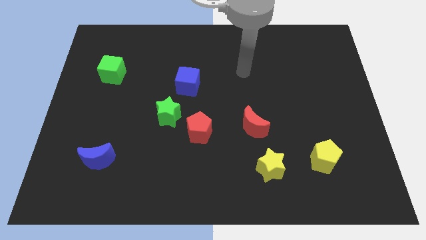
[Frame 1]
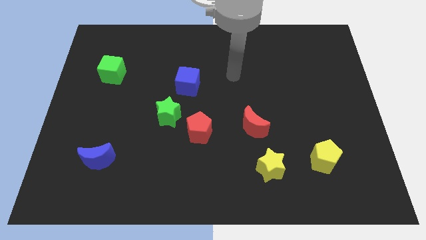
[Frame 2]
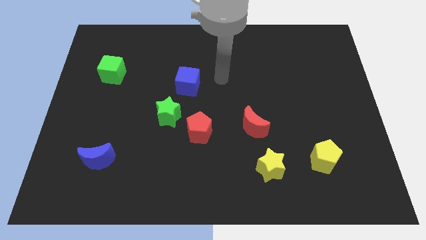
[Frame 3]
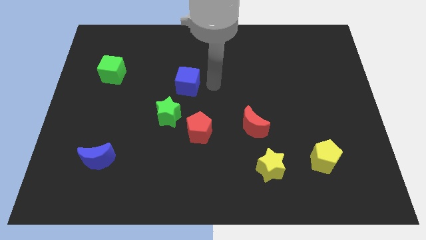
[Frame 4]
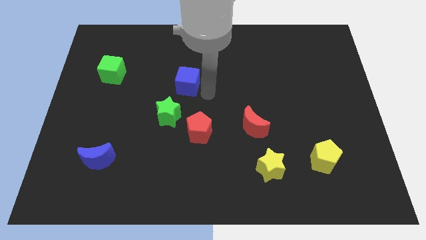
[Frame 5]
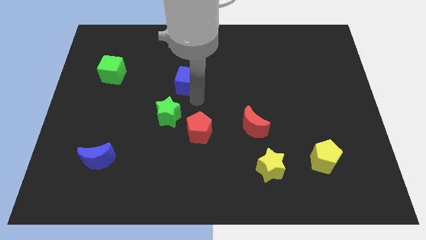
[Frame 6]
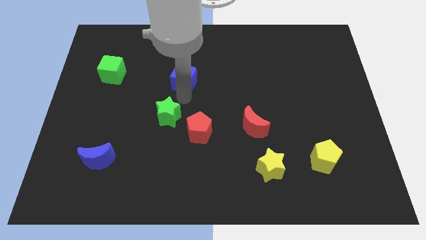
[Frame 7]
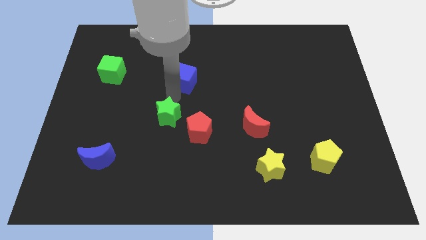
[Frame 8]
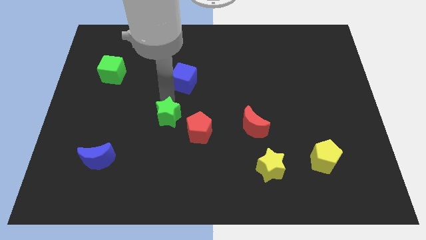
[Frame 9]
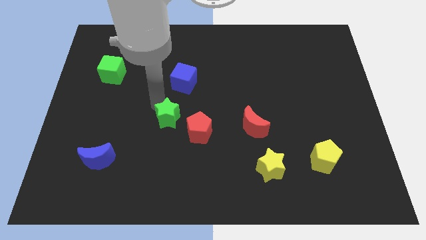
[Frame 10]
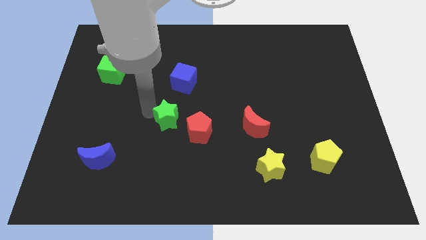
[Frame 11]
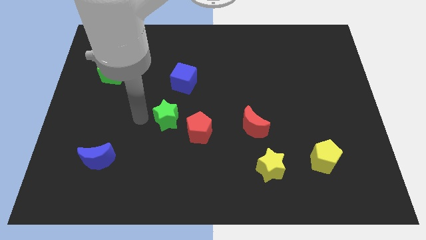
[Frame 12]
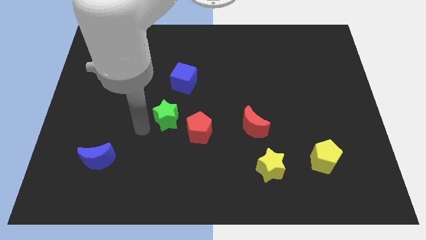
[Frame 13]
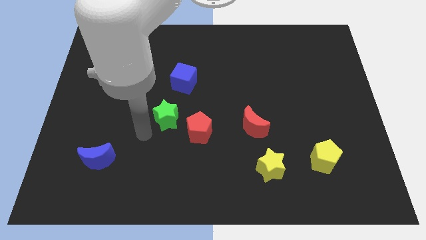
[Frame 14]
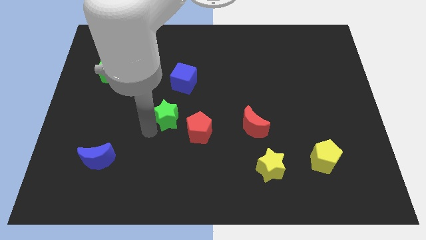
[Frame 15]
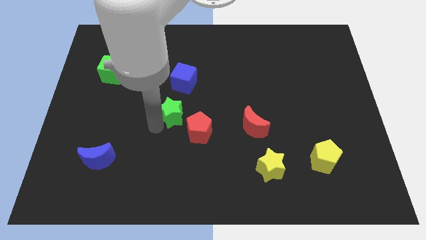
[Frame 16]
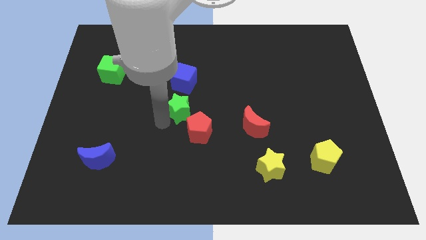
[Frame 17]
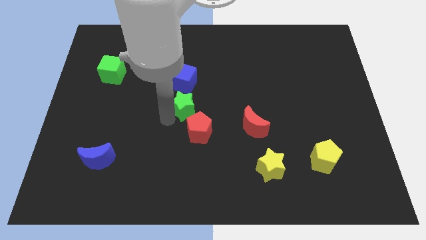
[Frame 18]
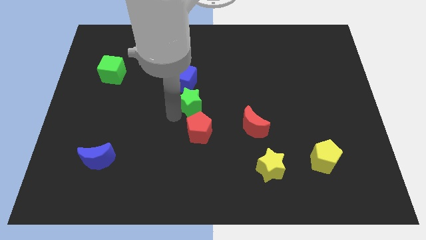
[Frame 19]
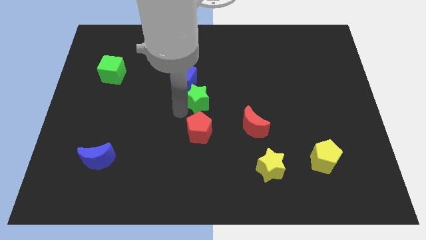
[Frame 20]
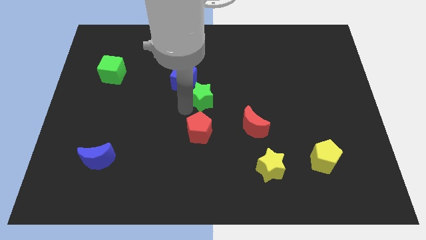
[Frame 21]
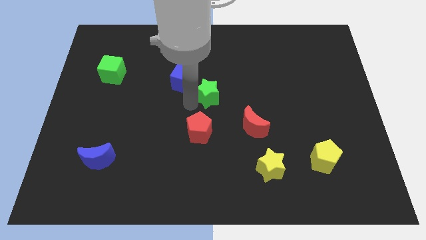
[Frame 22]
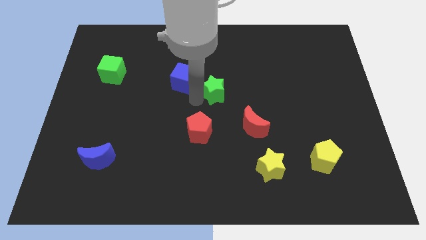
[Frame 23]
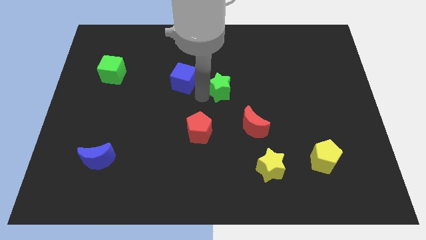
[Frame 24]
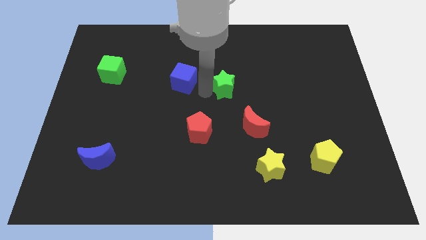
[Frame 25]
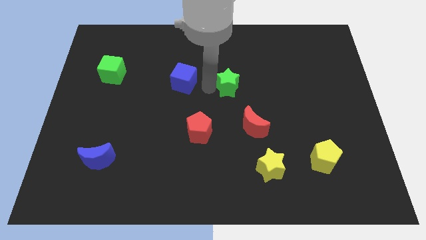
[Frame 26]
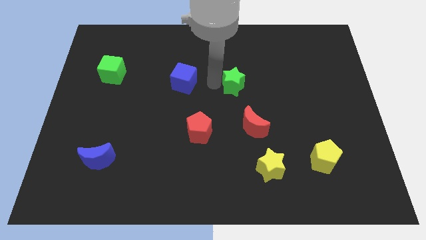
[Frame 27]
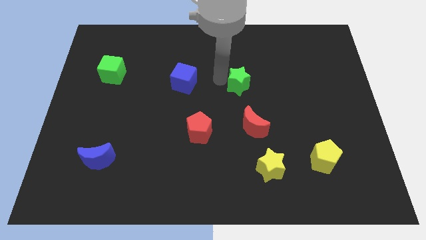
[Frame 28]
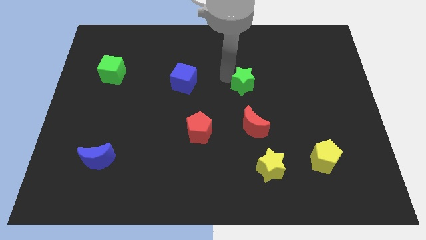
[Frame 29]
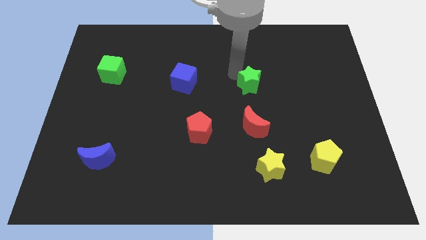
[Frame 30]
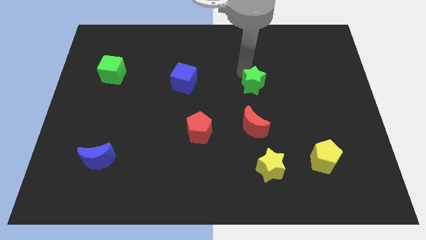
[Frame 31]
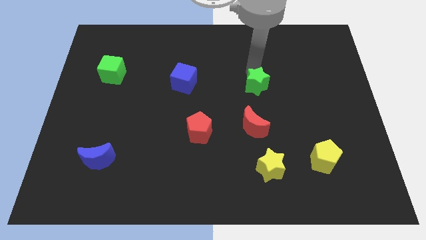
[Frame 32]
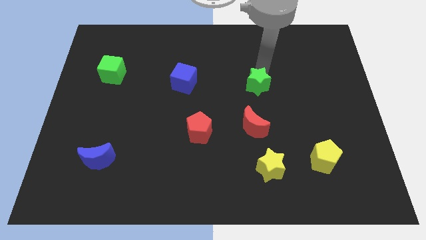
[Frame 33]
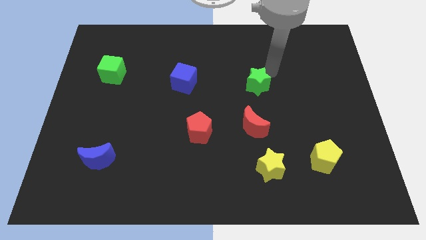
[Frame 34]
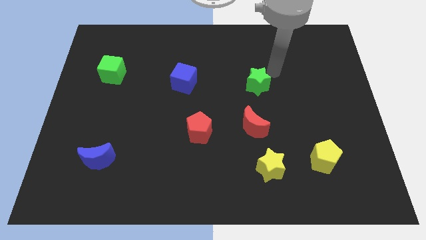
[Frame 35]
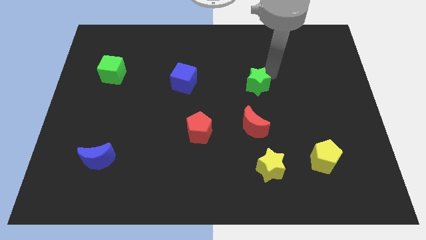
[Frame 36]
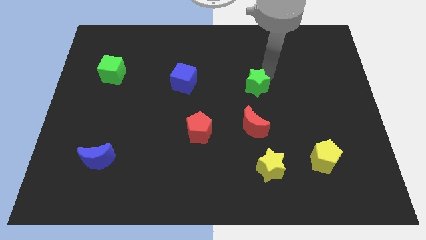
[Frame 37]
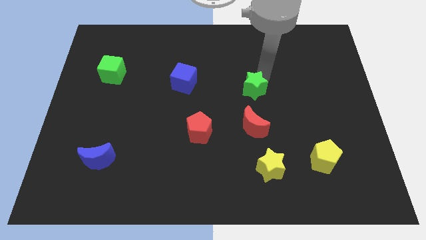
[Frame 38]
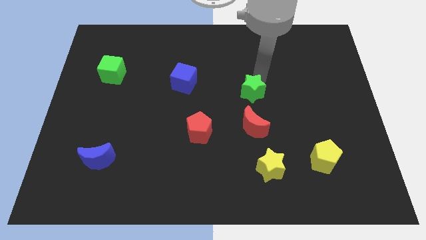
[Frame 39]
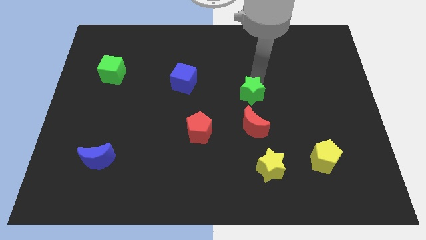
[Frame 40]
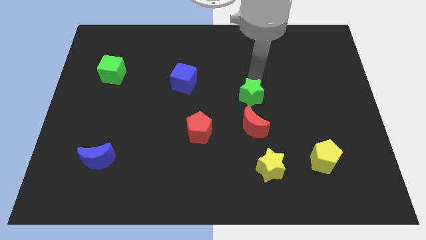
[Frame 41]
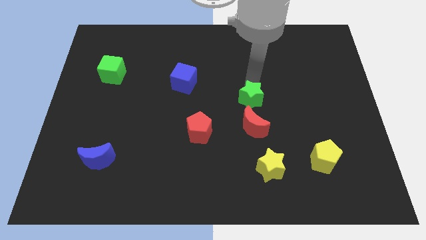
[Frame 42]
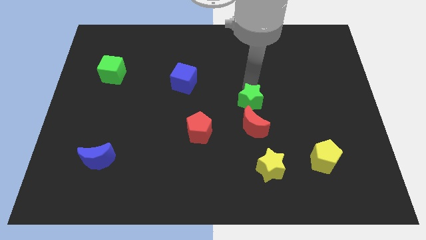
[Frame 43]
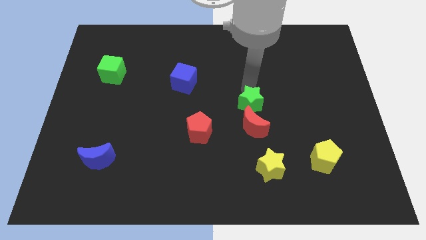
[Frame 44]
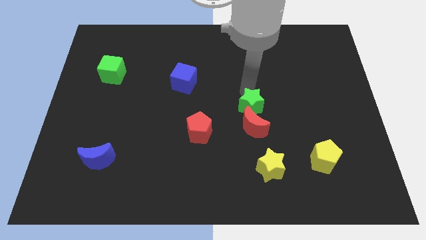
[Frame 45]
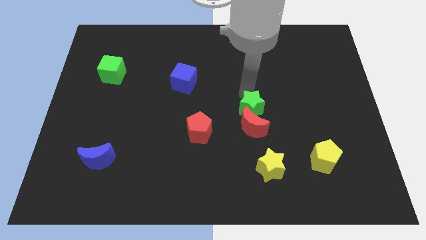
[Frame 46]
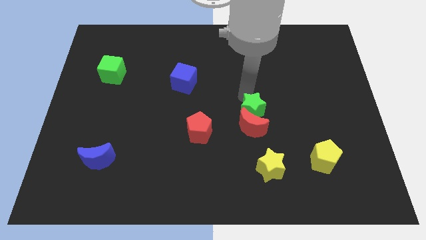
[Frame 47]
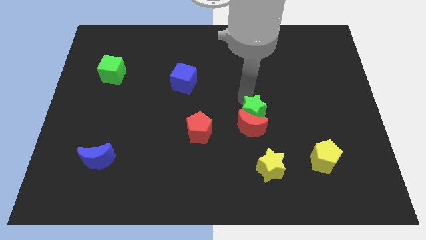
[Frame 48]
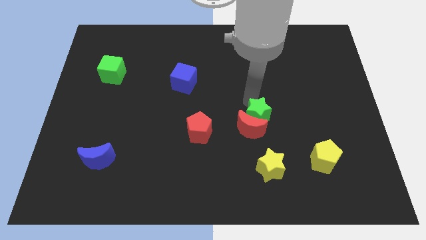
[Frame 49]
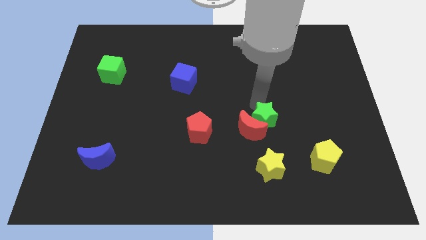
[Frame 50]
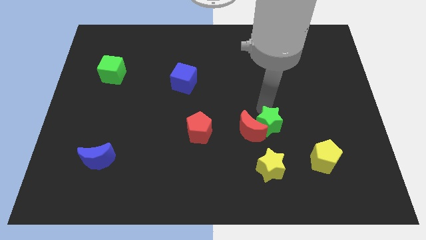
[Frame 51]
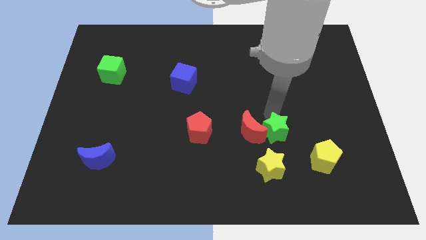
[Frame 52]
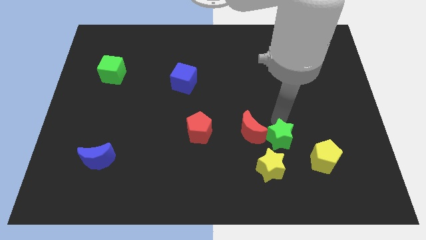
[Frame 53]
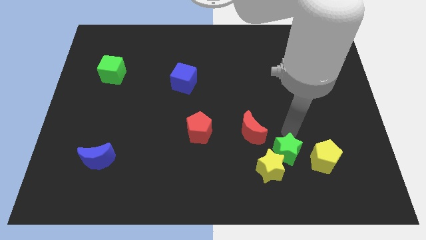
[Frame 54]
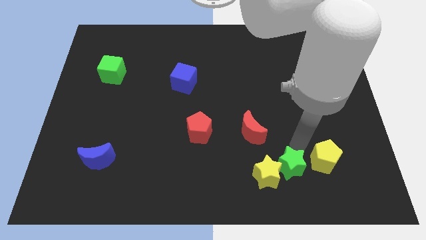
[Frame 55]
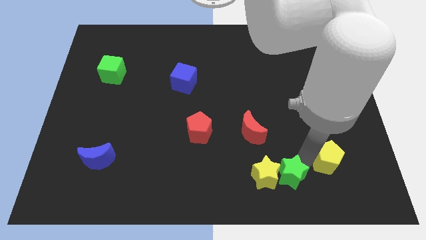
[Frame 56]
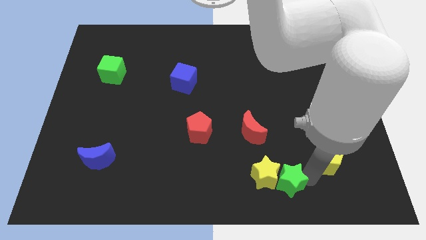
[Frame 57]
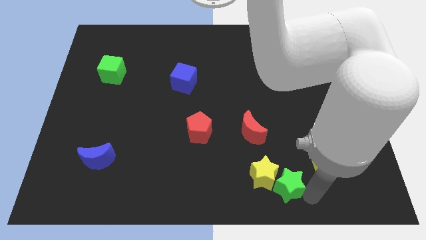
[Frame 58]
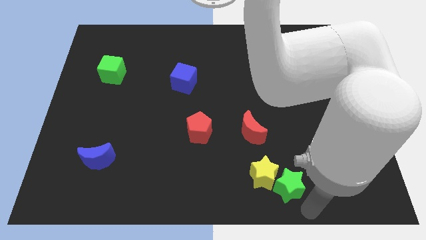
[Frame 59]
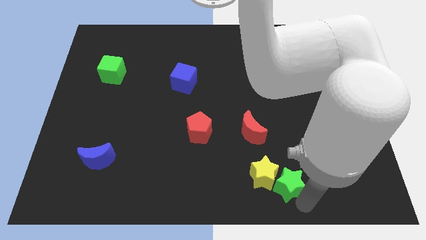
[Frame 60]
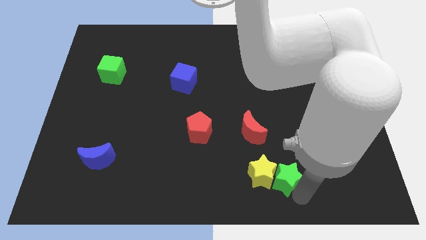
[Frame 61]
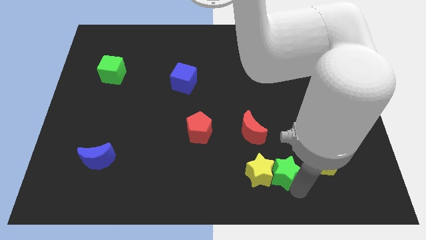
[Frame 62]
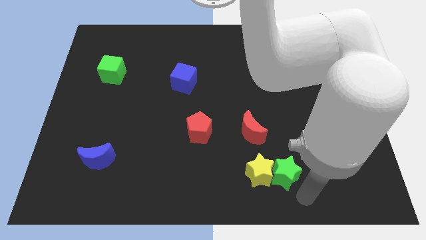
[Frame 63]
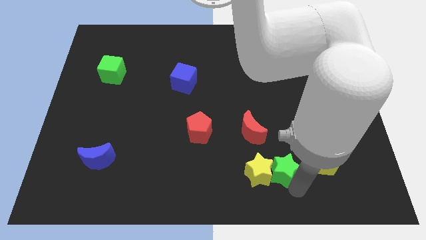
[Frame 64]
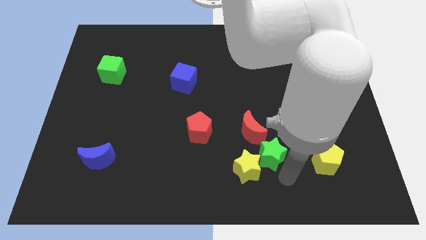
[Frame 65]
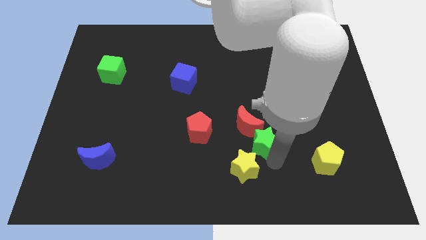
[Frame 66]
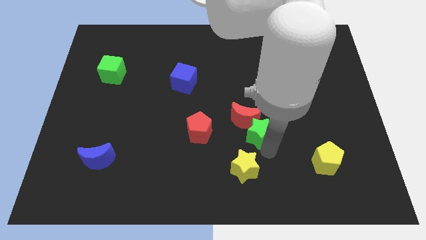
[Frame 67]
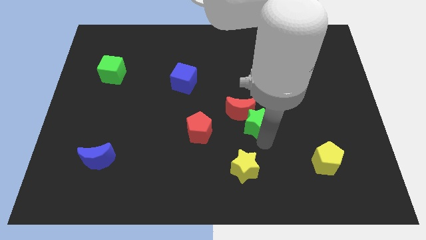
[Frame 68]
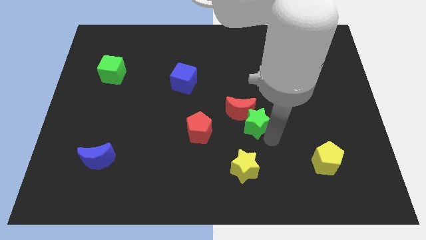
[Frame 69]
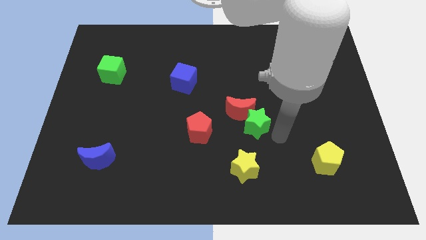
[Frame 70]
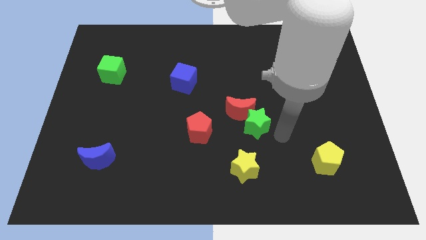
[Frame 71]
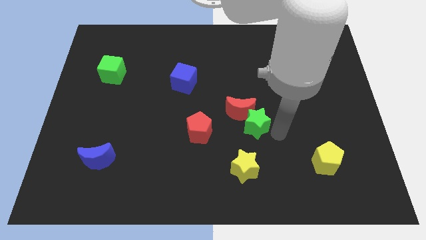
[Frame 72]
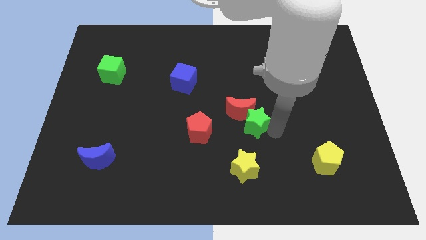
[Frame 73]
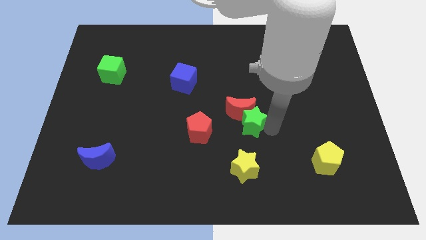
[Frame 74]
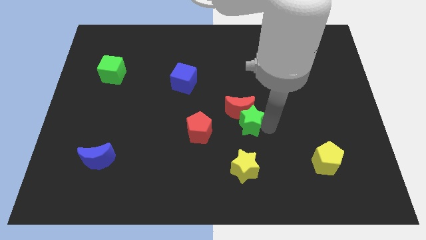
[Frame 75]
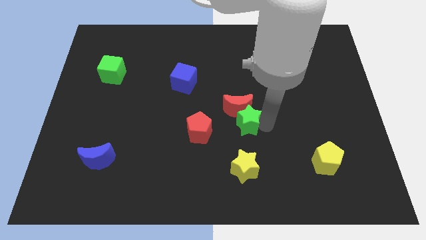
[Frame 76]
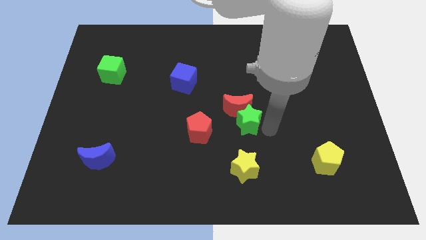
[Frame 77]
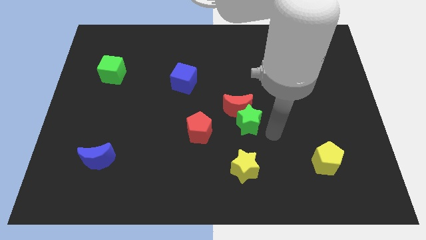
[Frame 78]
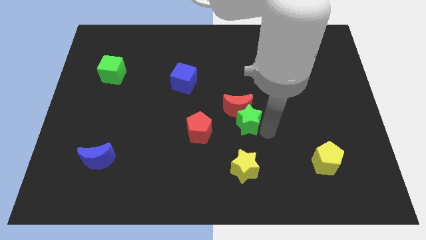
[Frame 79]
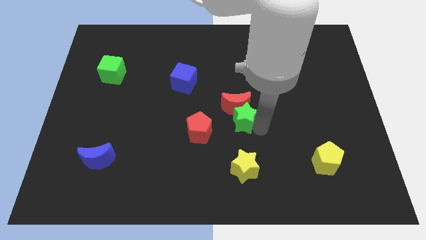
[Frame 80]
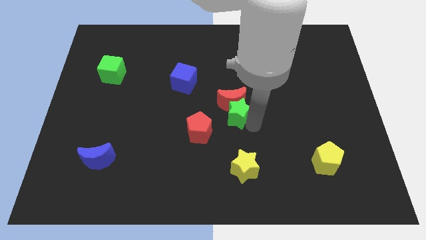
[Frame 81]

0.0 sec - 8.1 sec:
move the green star diagonally up and to the right of the red pentagon
